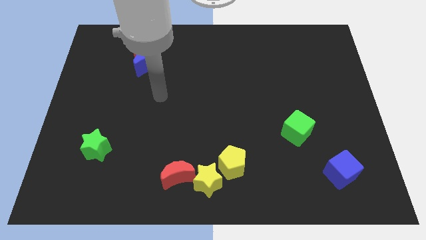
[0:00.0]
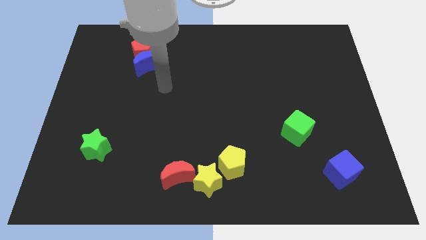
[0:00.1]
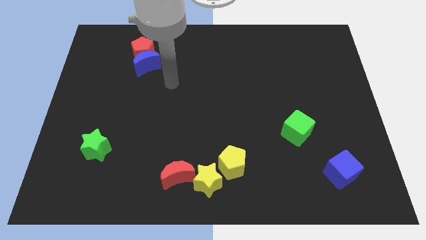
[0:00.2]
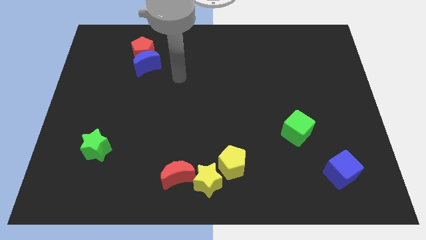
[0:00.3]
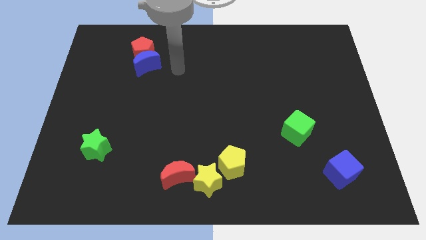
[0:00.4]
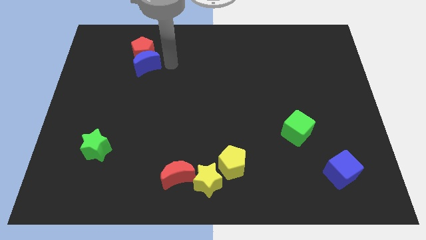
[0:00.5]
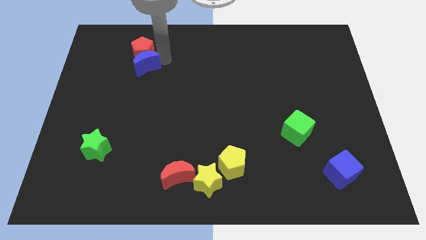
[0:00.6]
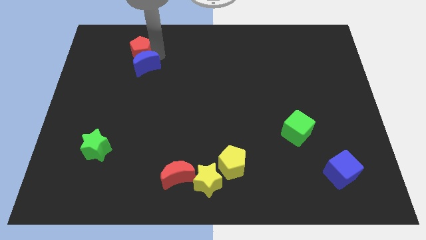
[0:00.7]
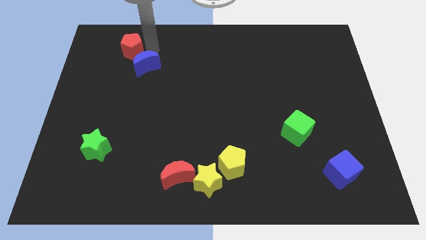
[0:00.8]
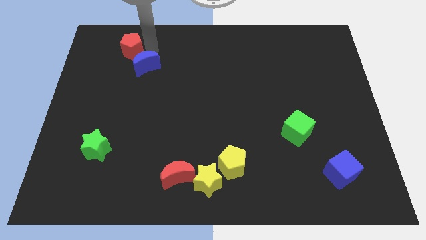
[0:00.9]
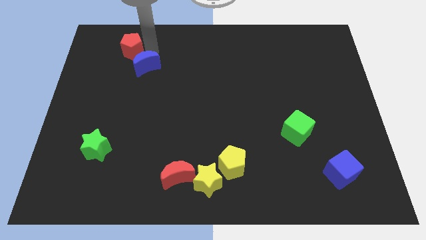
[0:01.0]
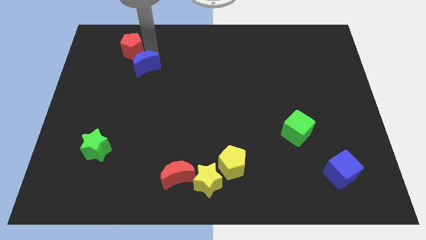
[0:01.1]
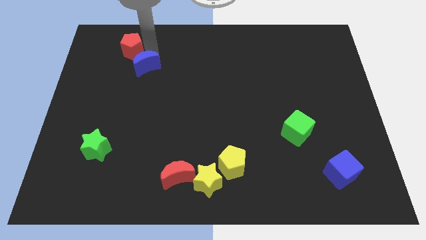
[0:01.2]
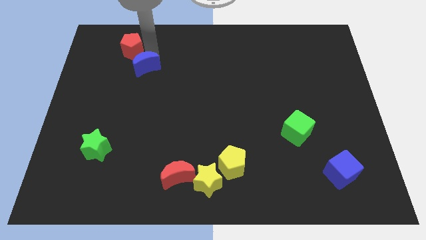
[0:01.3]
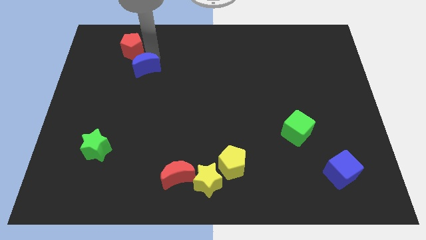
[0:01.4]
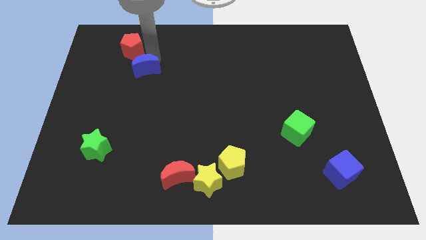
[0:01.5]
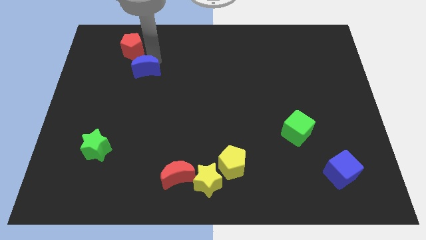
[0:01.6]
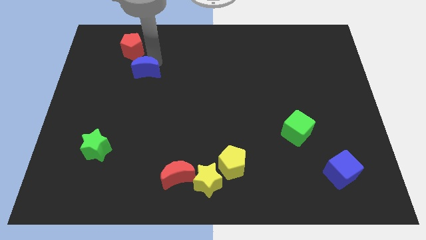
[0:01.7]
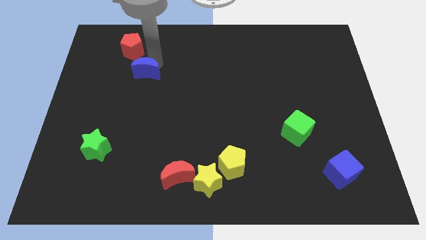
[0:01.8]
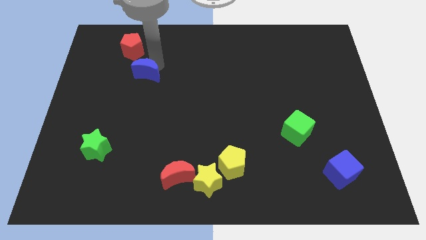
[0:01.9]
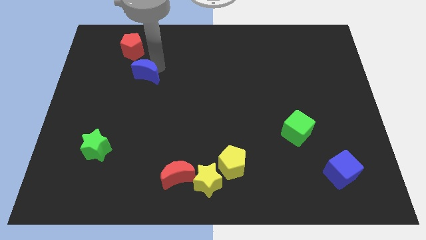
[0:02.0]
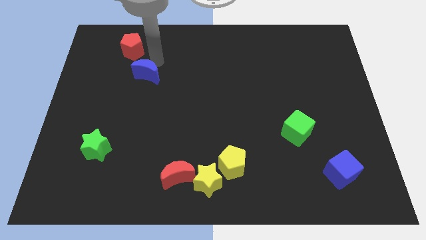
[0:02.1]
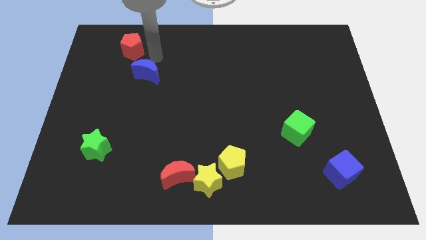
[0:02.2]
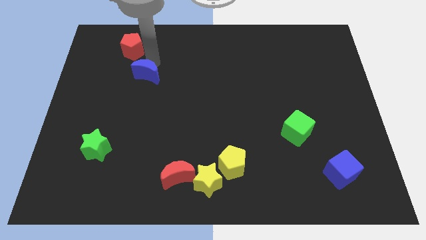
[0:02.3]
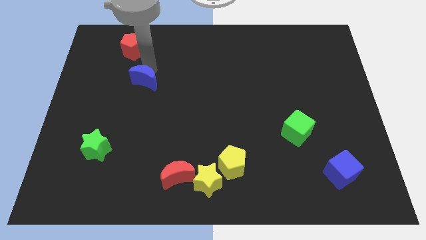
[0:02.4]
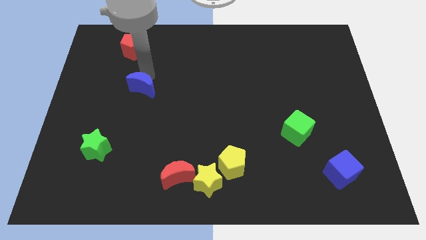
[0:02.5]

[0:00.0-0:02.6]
push the blue moon down somewhat

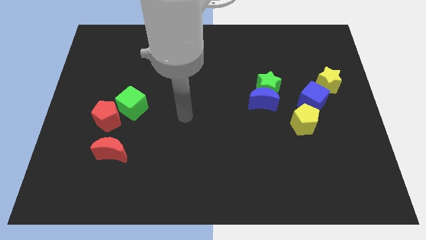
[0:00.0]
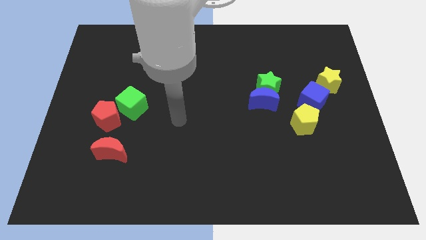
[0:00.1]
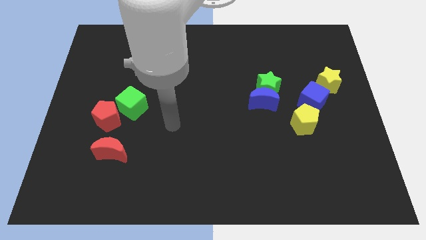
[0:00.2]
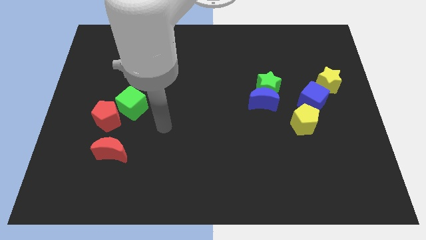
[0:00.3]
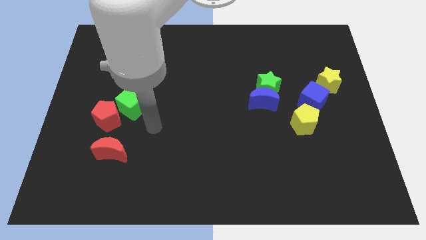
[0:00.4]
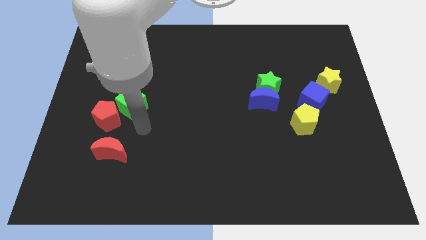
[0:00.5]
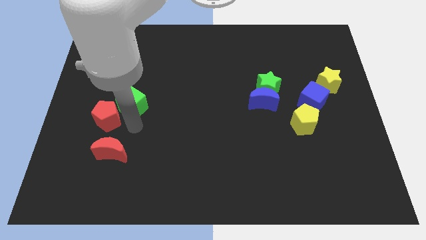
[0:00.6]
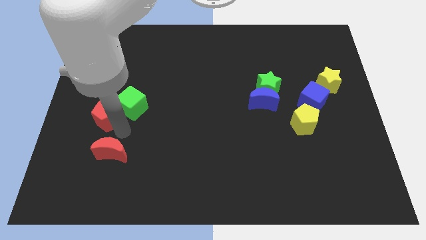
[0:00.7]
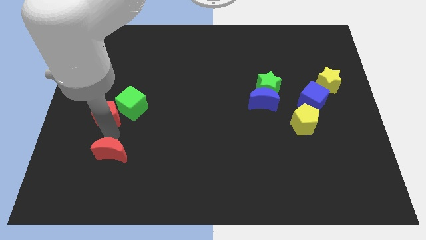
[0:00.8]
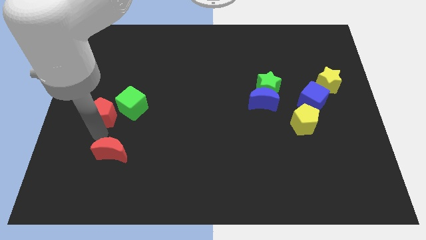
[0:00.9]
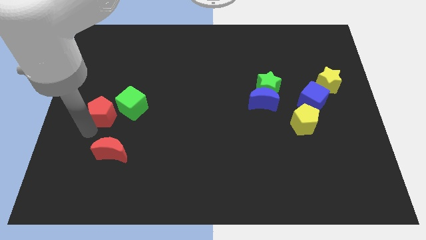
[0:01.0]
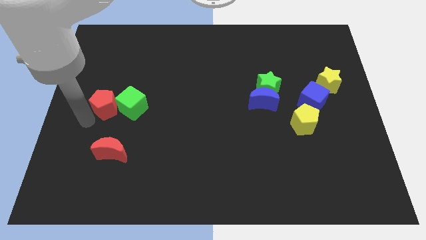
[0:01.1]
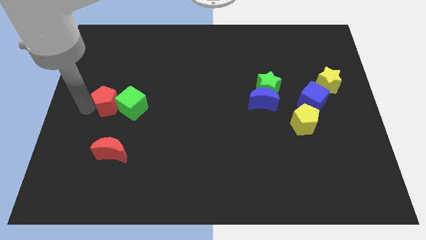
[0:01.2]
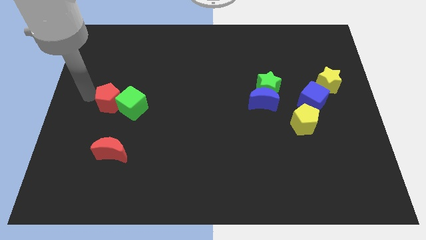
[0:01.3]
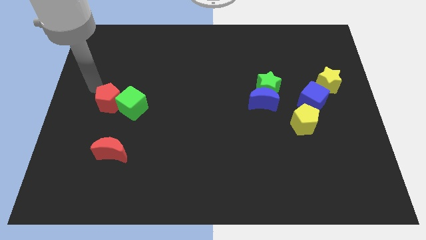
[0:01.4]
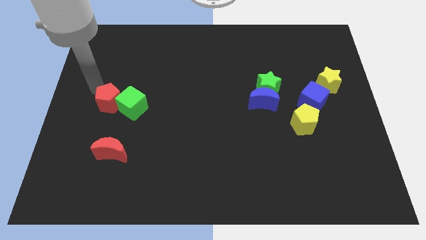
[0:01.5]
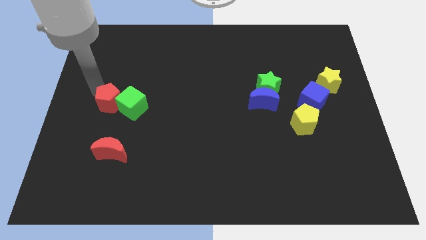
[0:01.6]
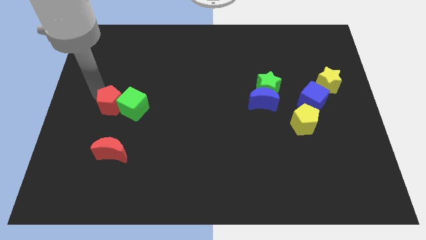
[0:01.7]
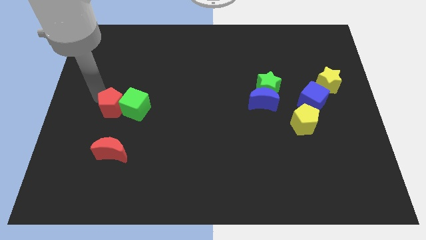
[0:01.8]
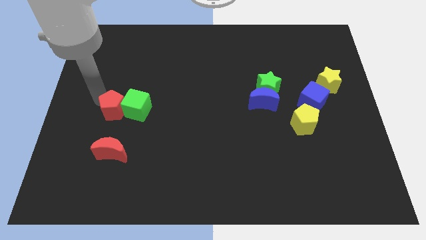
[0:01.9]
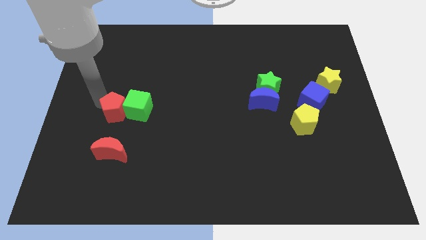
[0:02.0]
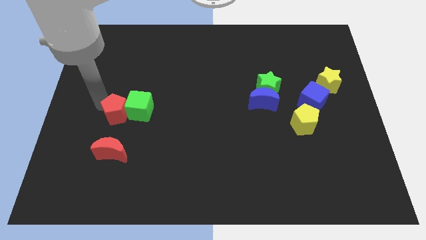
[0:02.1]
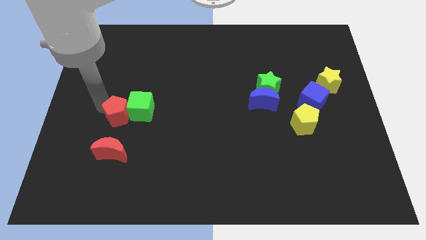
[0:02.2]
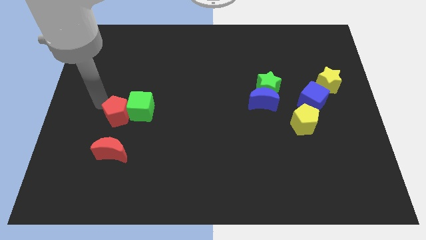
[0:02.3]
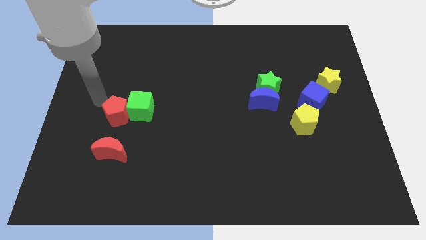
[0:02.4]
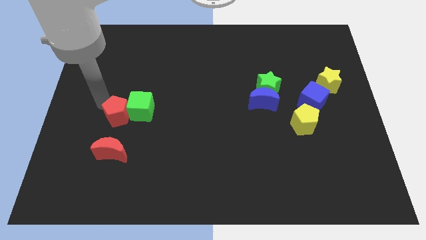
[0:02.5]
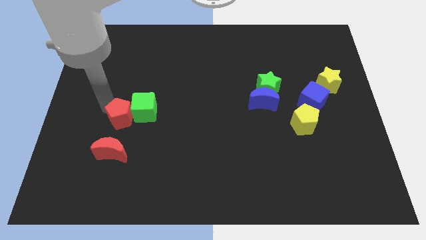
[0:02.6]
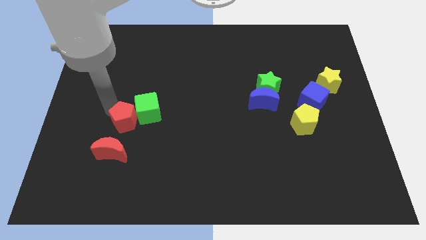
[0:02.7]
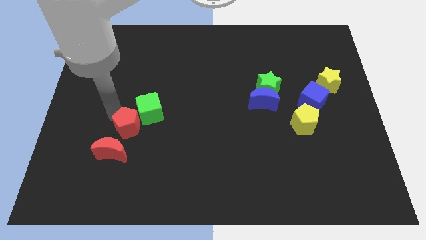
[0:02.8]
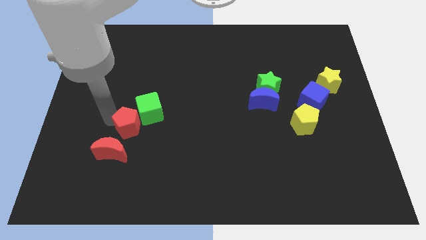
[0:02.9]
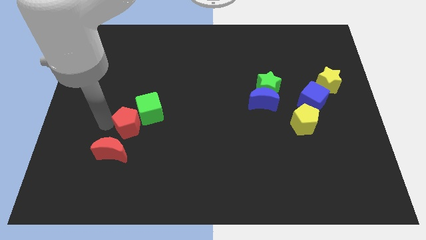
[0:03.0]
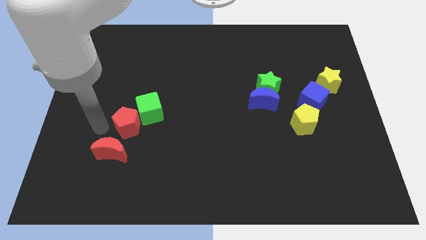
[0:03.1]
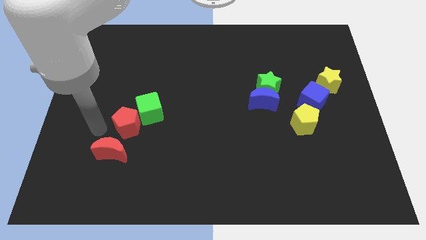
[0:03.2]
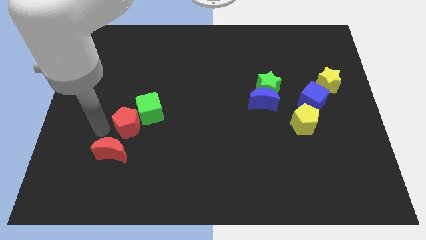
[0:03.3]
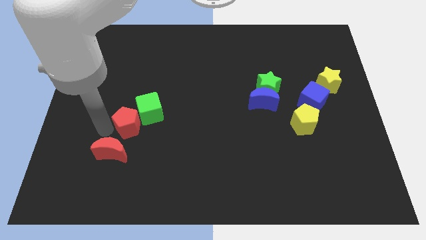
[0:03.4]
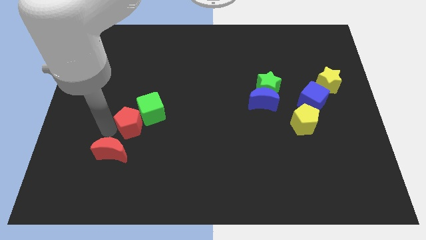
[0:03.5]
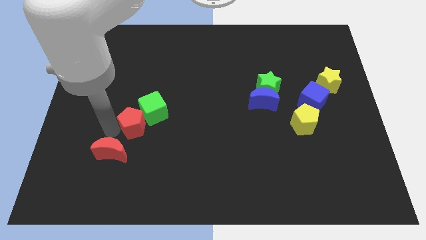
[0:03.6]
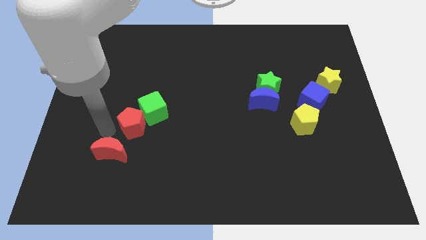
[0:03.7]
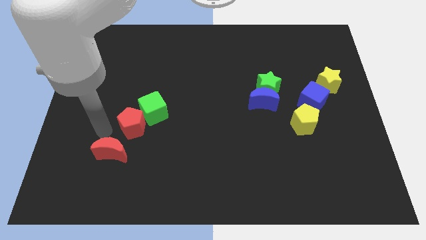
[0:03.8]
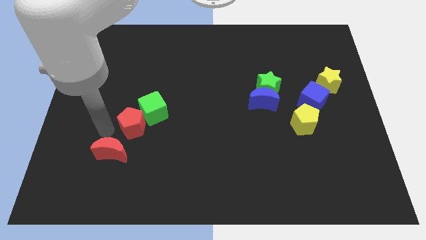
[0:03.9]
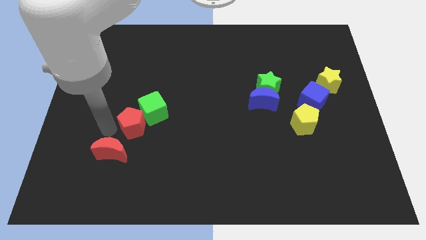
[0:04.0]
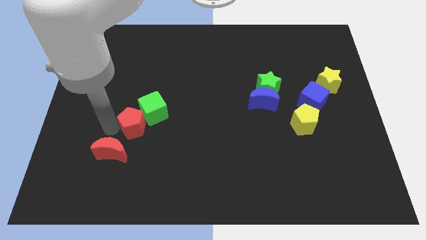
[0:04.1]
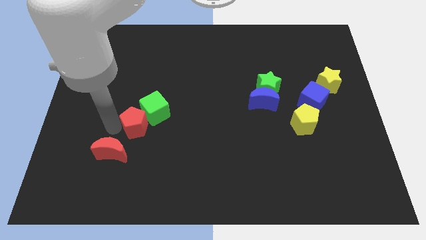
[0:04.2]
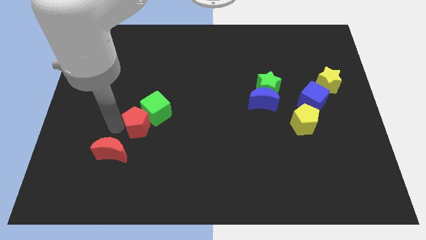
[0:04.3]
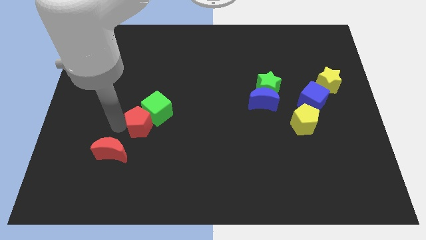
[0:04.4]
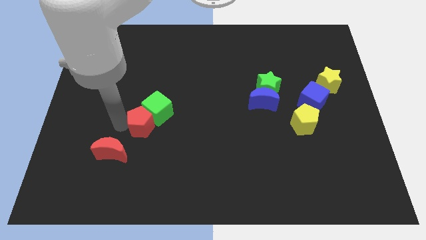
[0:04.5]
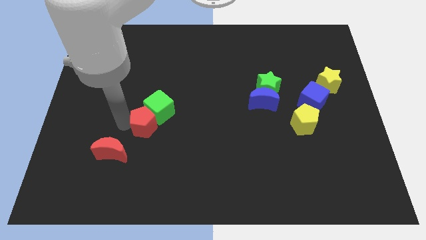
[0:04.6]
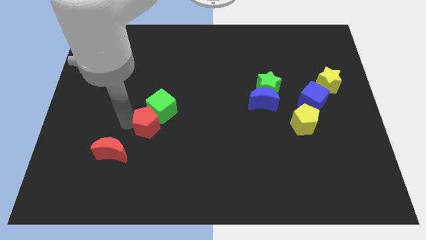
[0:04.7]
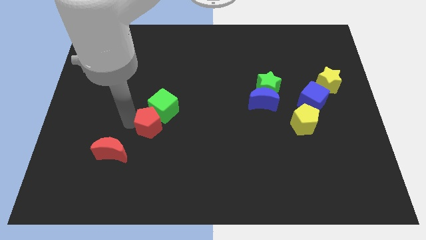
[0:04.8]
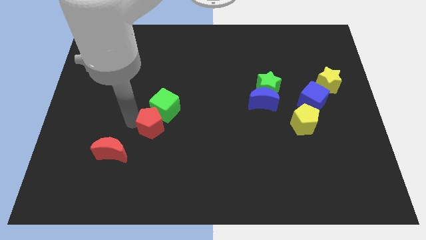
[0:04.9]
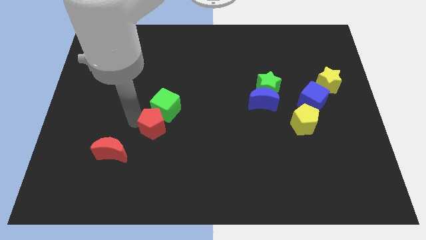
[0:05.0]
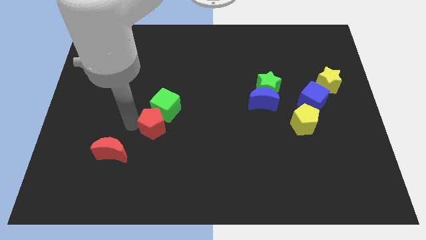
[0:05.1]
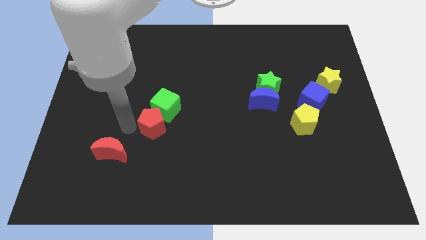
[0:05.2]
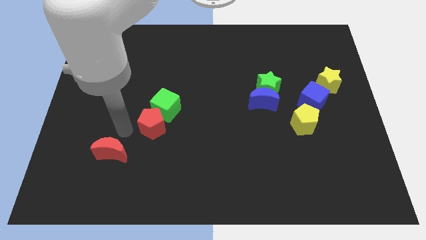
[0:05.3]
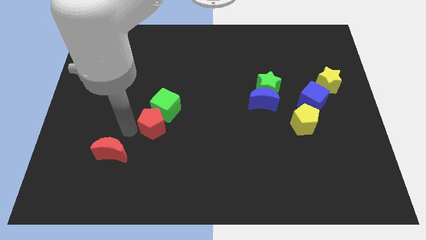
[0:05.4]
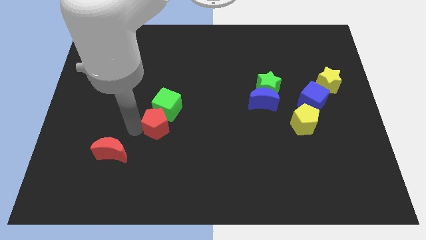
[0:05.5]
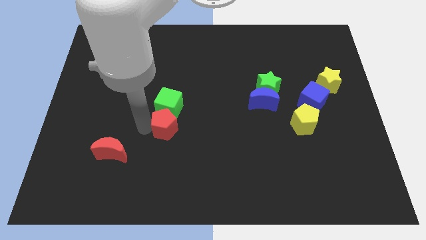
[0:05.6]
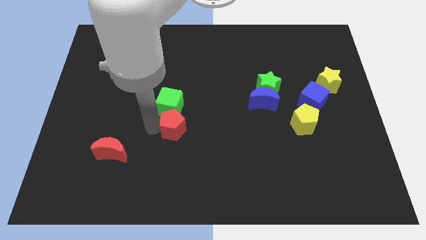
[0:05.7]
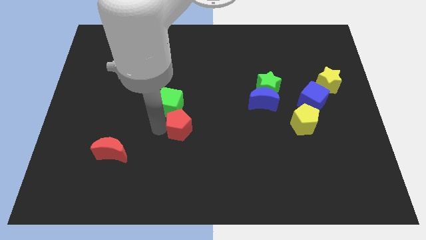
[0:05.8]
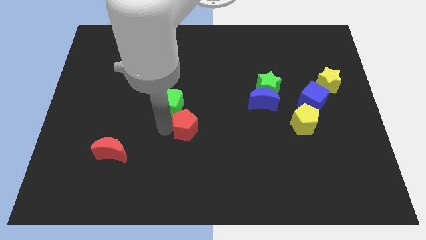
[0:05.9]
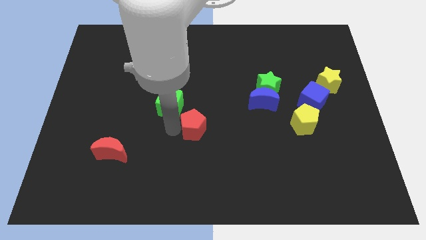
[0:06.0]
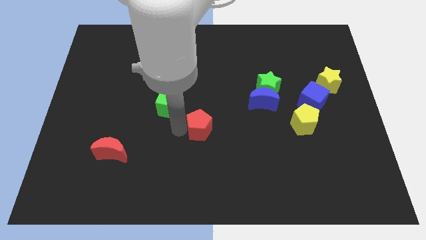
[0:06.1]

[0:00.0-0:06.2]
slide the red pentagon to the right
